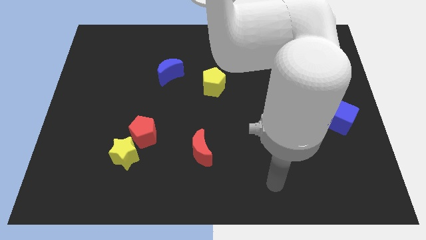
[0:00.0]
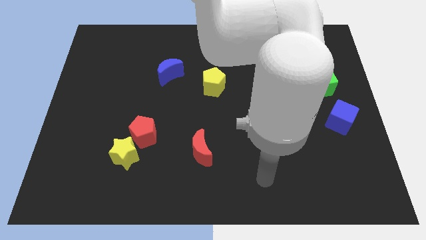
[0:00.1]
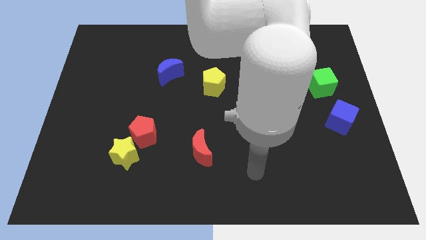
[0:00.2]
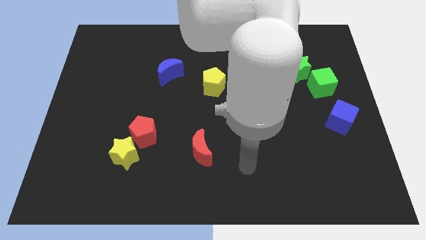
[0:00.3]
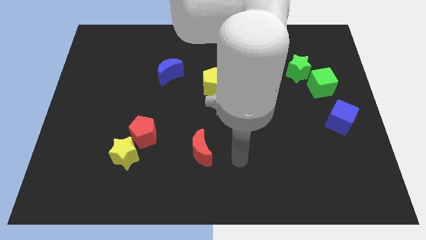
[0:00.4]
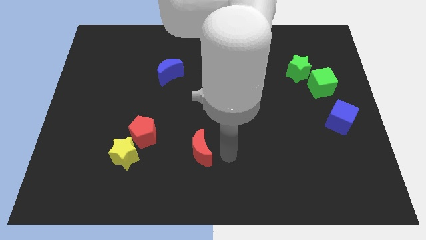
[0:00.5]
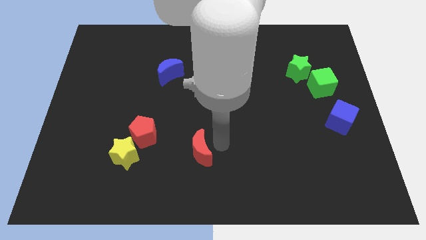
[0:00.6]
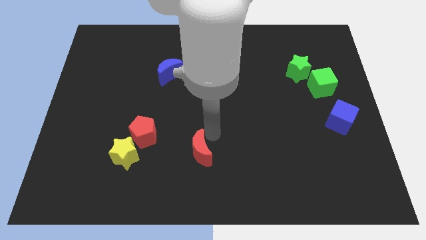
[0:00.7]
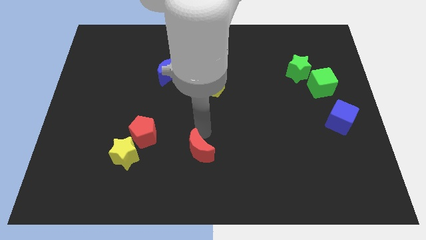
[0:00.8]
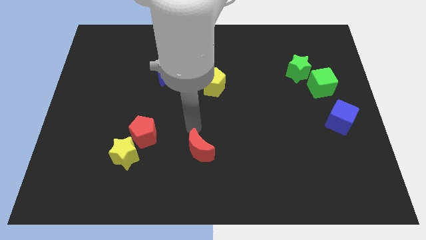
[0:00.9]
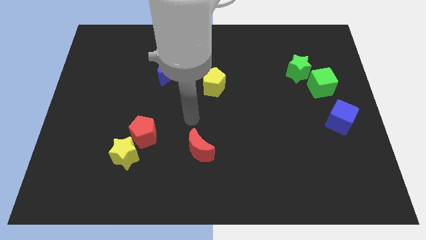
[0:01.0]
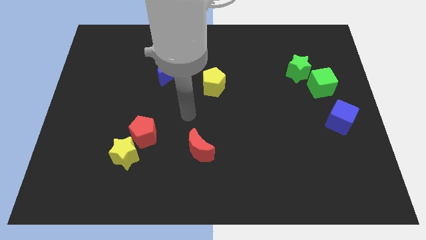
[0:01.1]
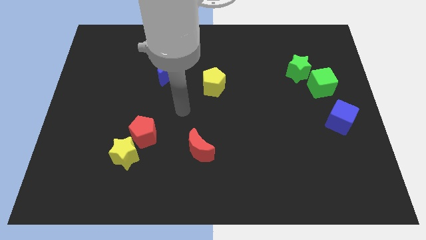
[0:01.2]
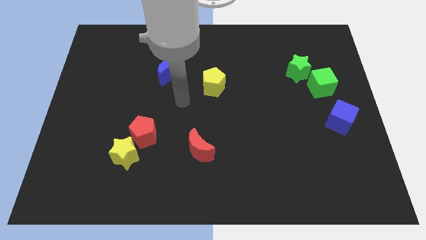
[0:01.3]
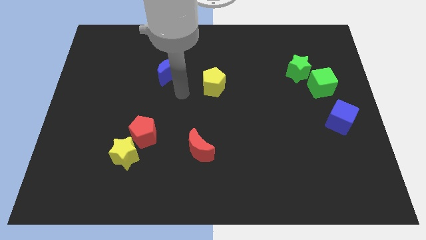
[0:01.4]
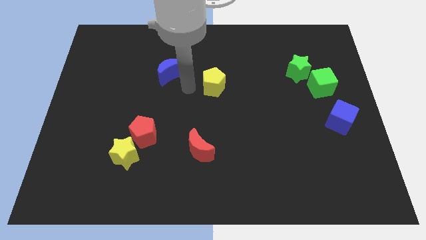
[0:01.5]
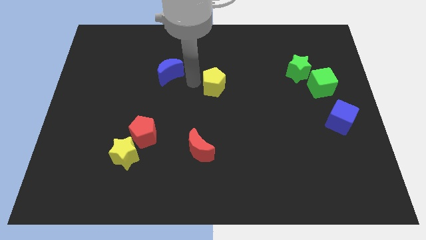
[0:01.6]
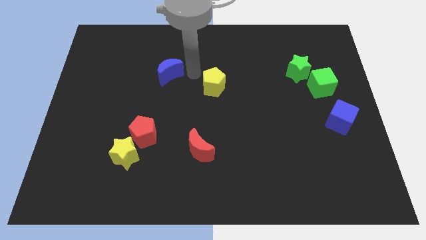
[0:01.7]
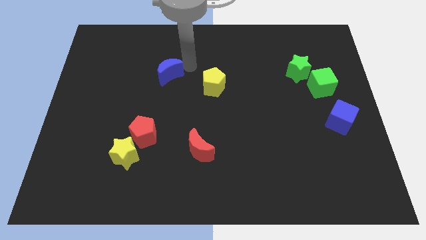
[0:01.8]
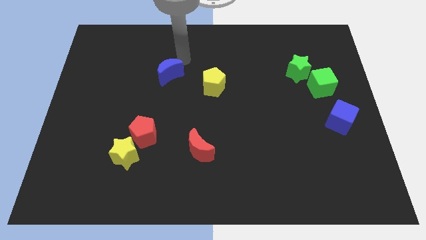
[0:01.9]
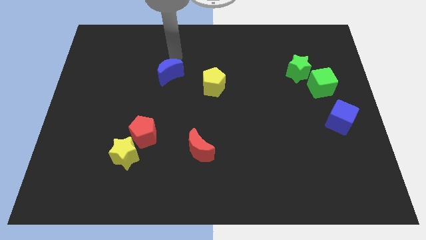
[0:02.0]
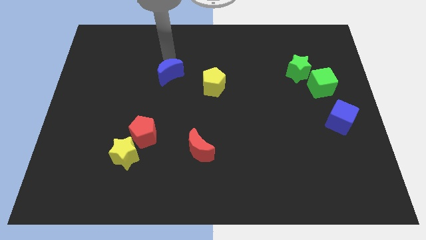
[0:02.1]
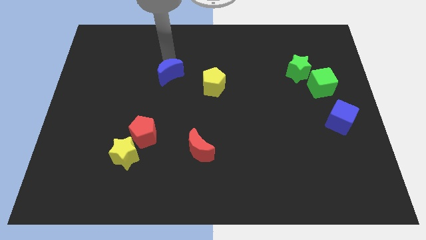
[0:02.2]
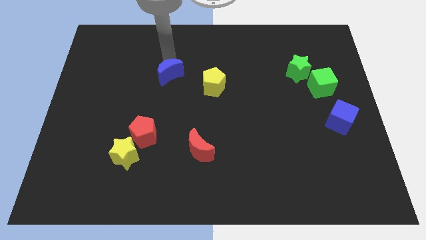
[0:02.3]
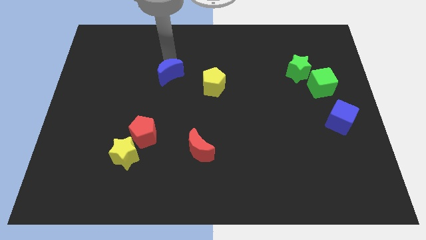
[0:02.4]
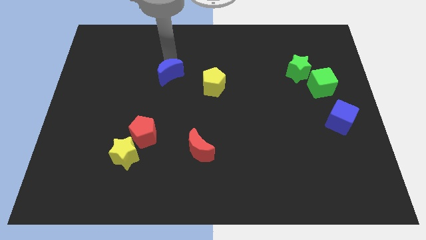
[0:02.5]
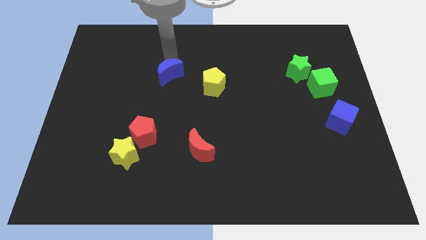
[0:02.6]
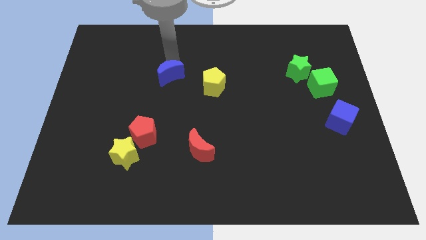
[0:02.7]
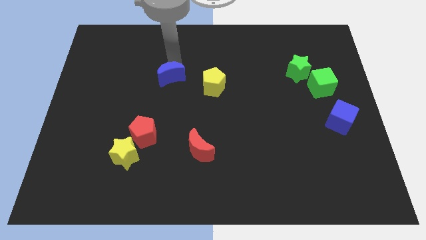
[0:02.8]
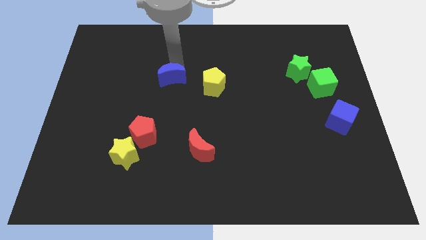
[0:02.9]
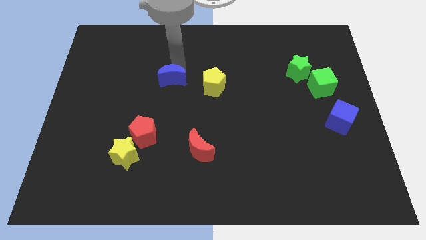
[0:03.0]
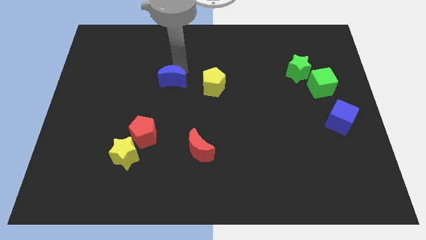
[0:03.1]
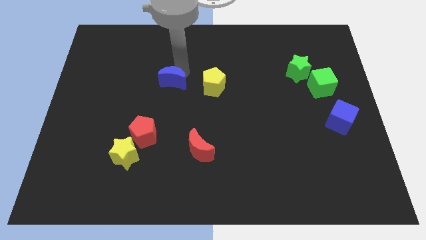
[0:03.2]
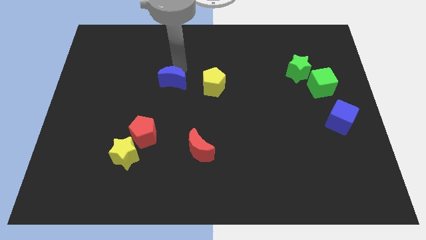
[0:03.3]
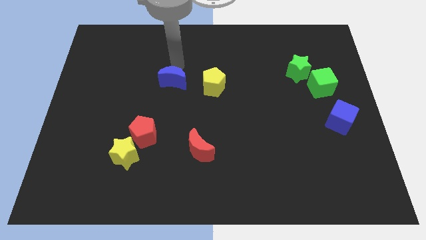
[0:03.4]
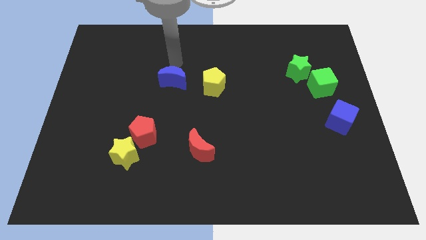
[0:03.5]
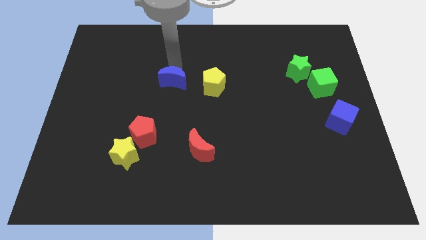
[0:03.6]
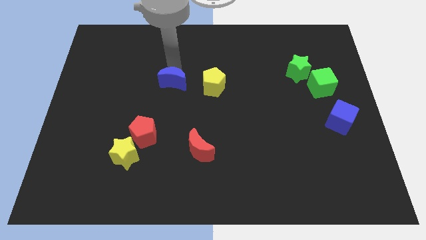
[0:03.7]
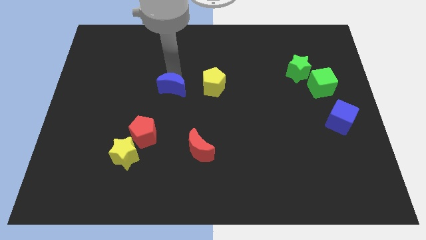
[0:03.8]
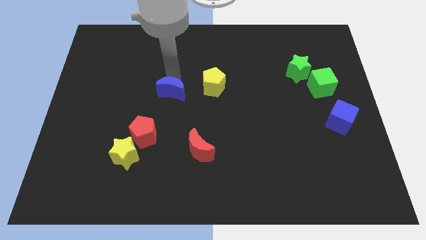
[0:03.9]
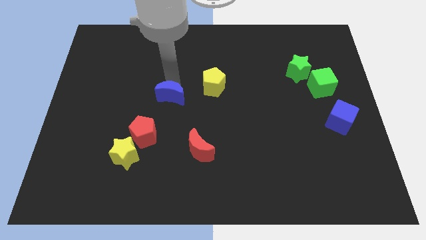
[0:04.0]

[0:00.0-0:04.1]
slide the blue moon a bit downwards

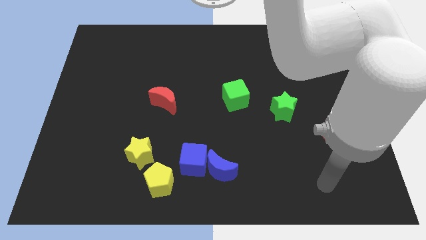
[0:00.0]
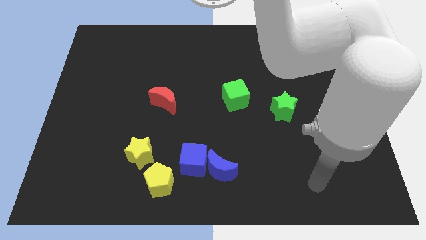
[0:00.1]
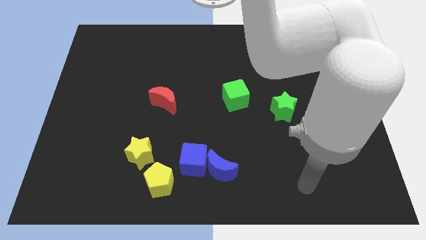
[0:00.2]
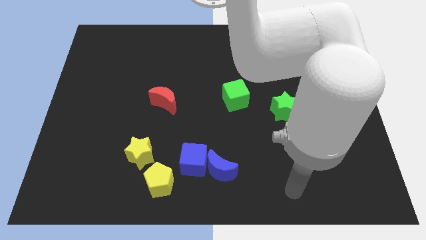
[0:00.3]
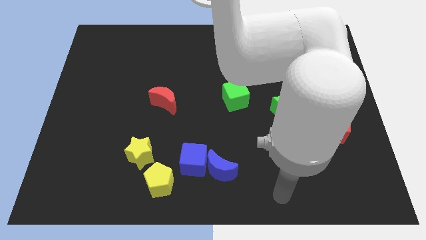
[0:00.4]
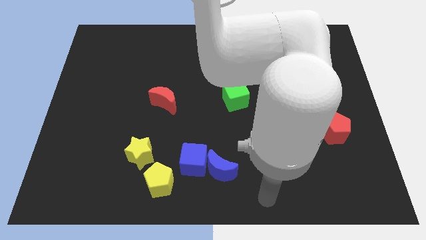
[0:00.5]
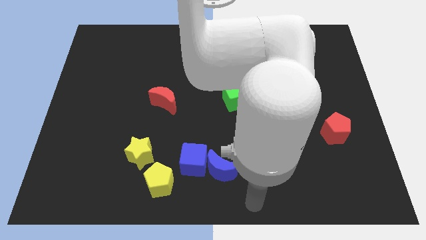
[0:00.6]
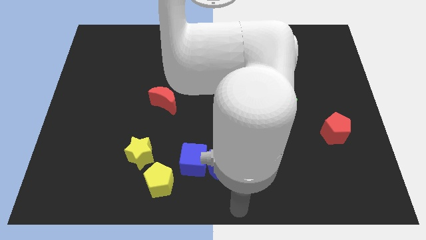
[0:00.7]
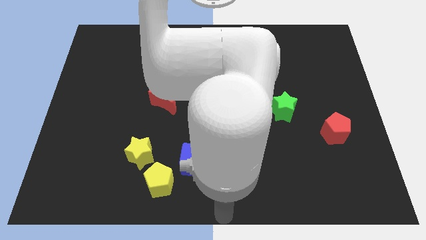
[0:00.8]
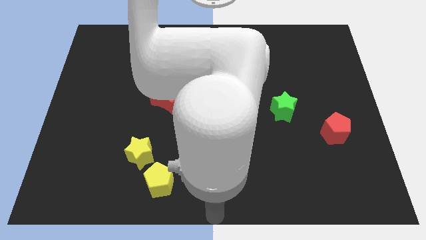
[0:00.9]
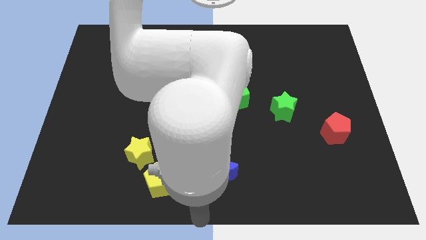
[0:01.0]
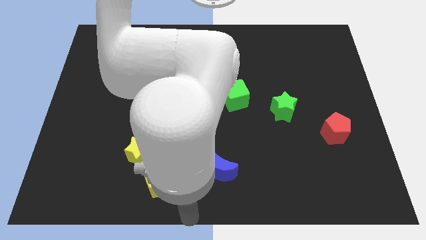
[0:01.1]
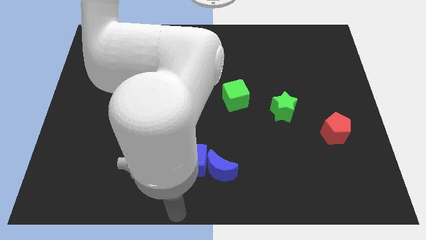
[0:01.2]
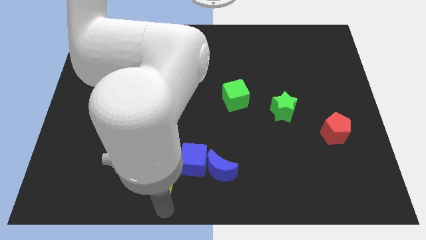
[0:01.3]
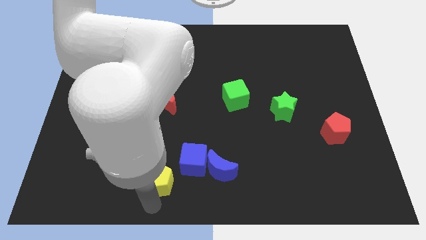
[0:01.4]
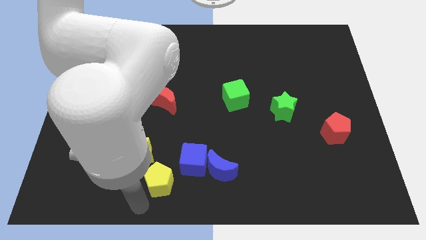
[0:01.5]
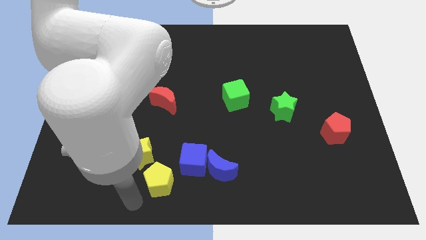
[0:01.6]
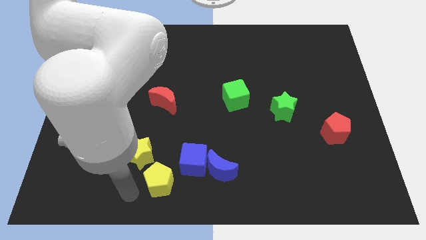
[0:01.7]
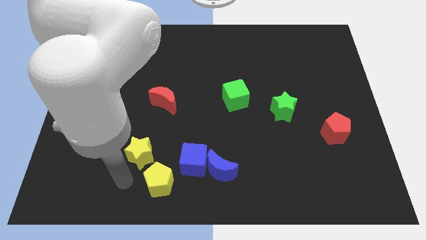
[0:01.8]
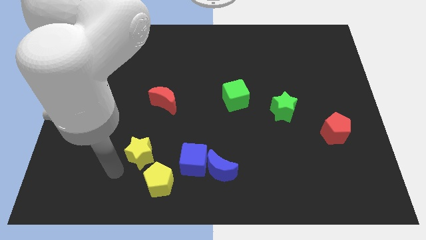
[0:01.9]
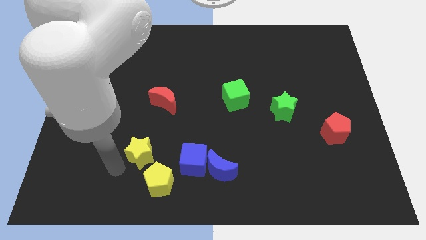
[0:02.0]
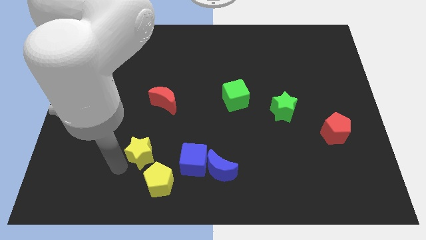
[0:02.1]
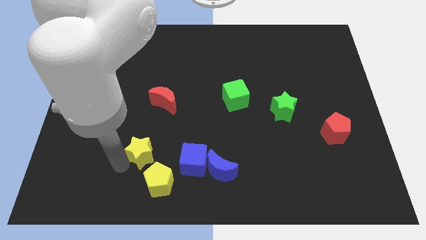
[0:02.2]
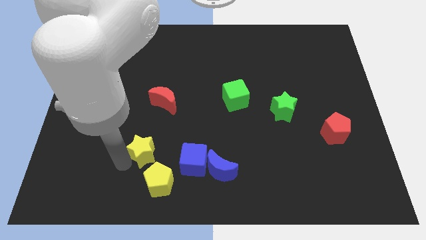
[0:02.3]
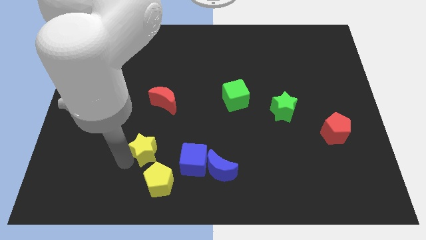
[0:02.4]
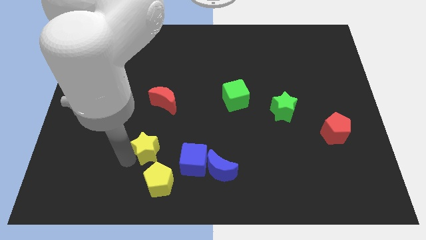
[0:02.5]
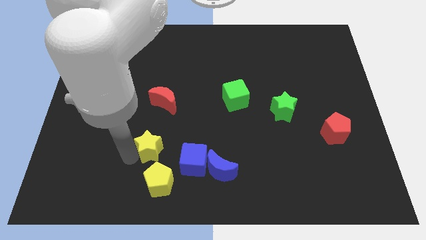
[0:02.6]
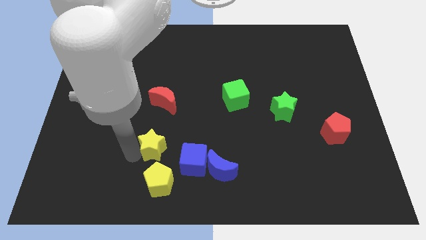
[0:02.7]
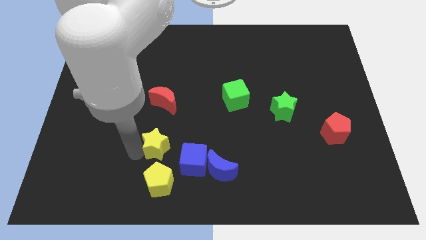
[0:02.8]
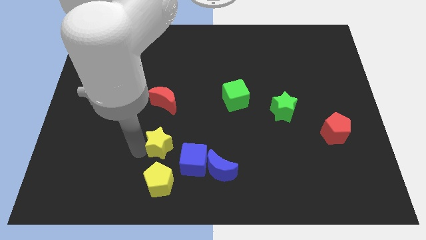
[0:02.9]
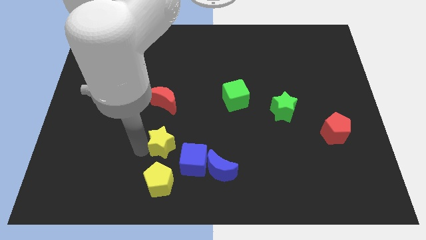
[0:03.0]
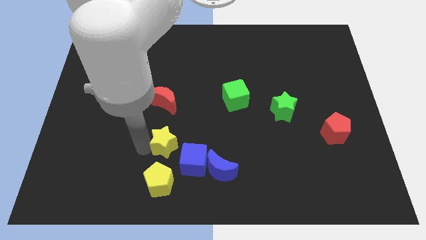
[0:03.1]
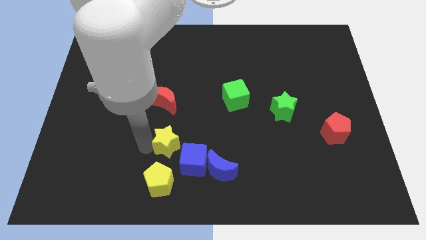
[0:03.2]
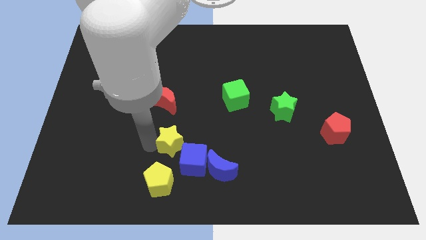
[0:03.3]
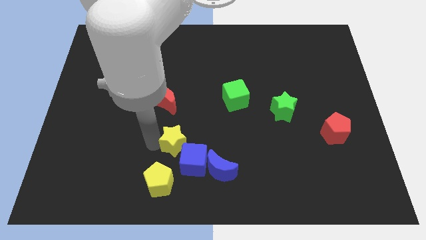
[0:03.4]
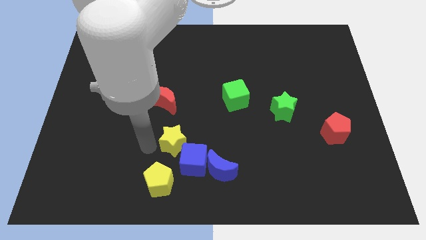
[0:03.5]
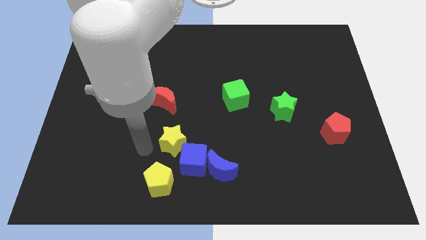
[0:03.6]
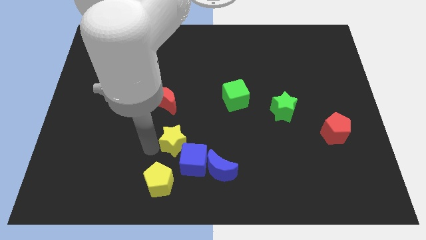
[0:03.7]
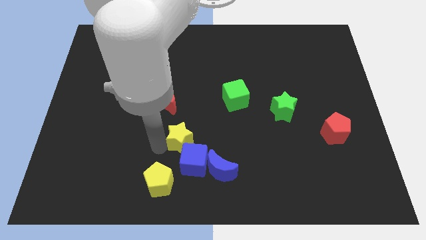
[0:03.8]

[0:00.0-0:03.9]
slightly push the yellow star to the right
